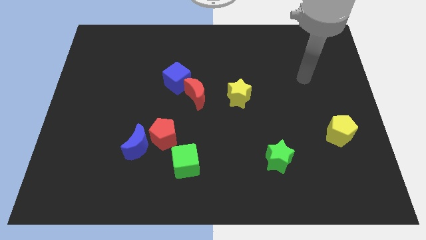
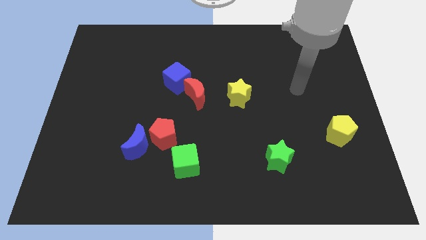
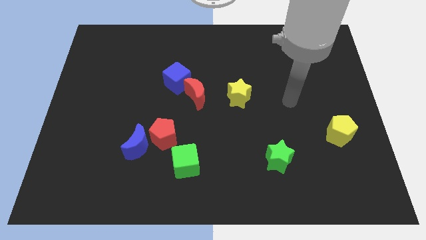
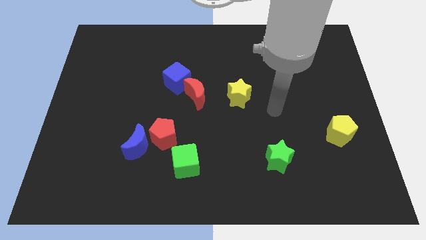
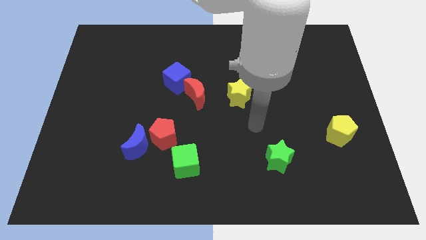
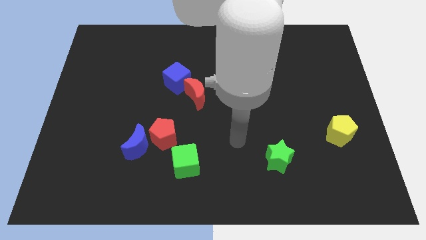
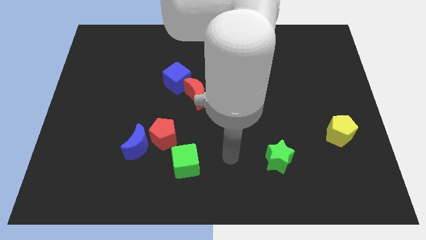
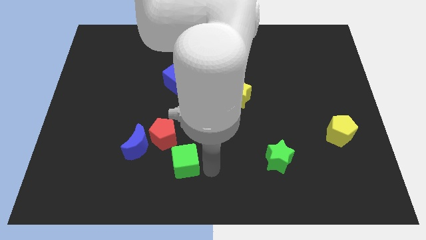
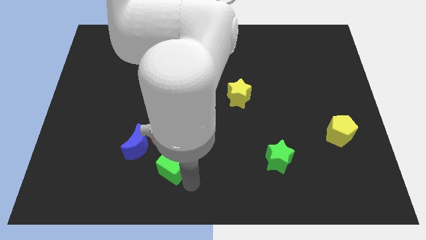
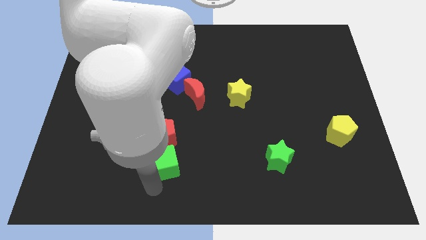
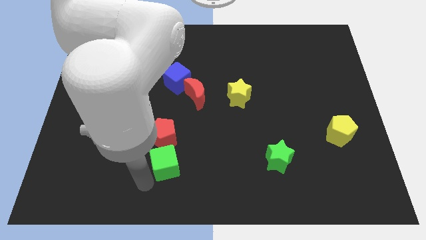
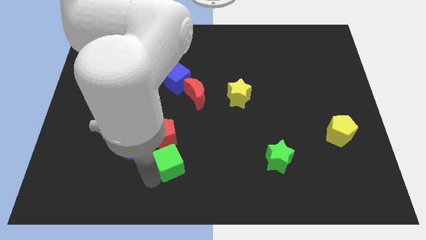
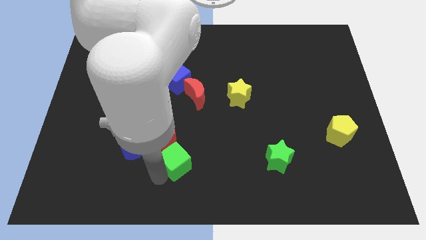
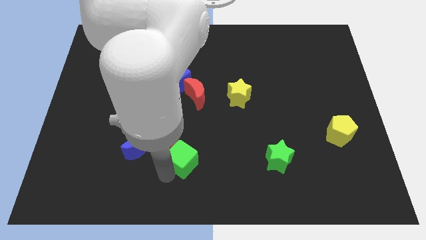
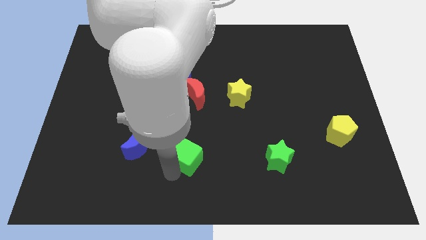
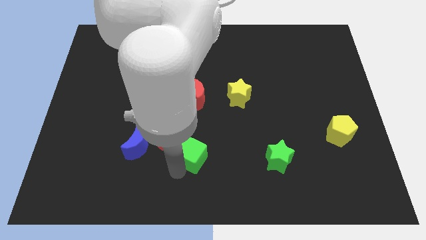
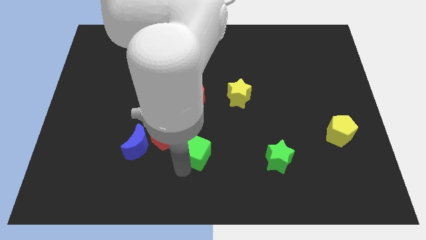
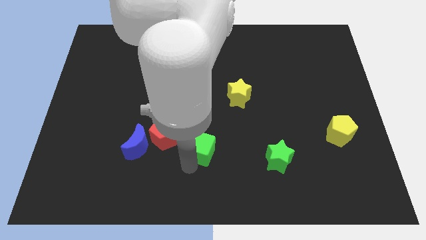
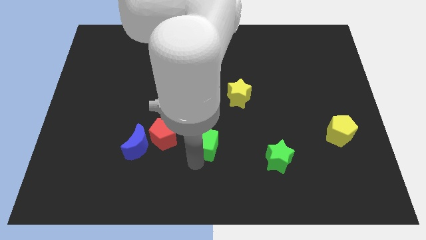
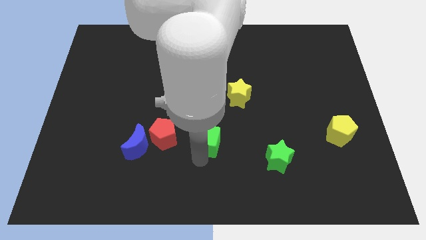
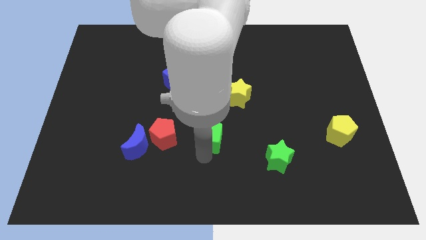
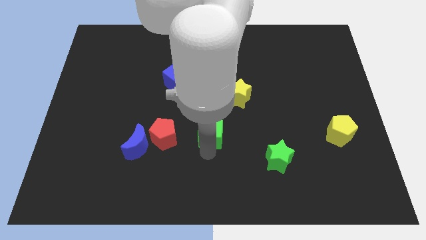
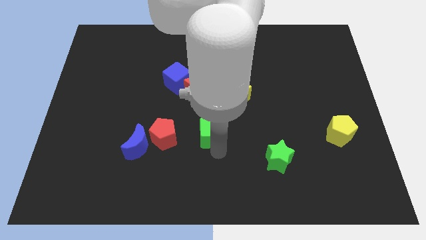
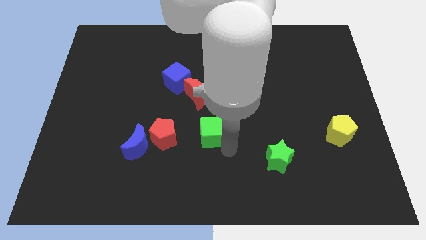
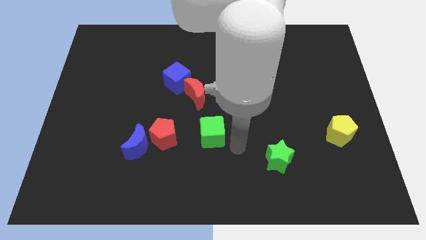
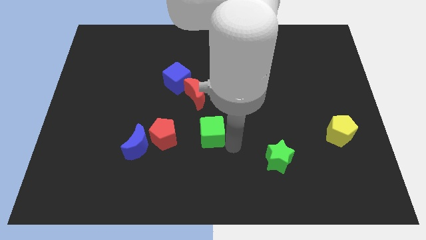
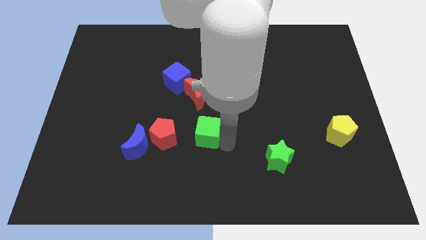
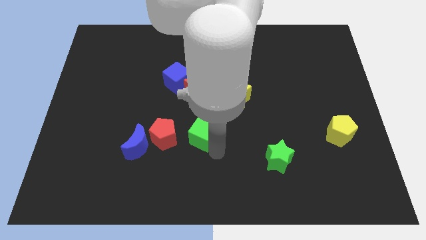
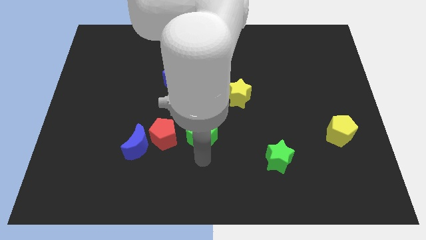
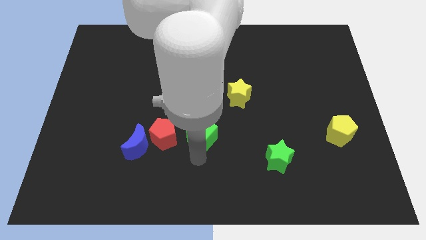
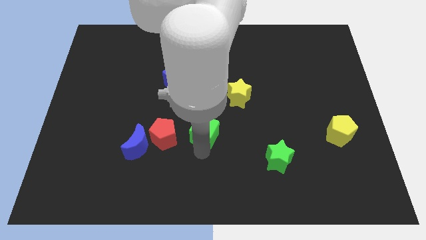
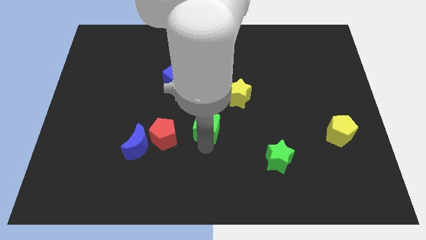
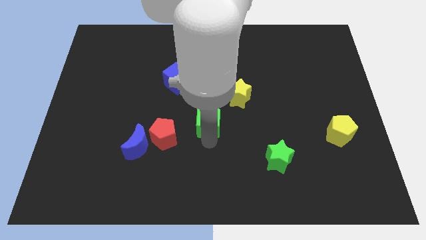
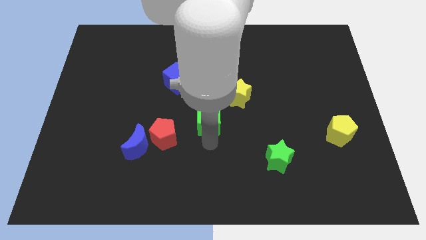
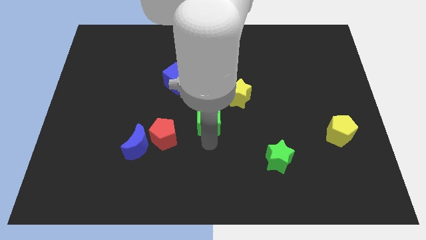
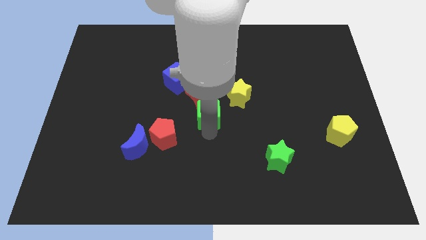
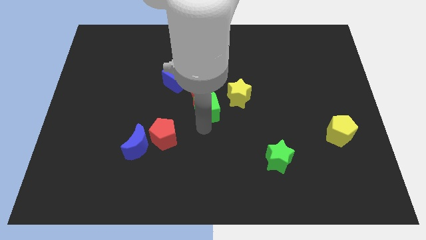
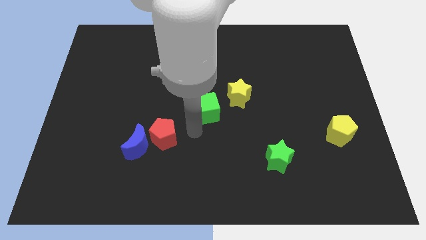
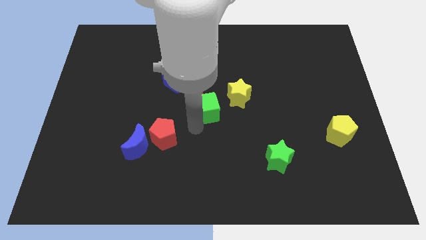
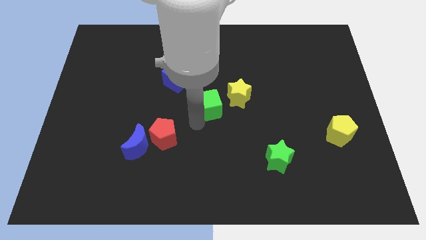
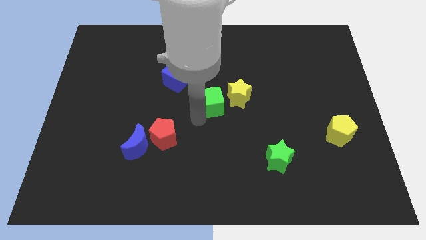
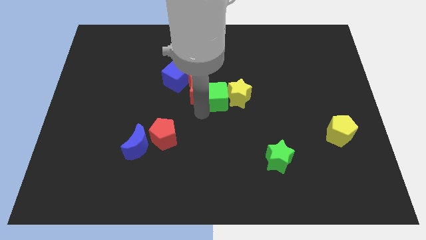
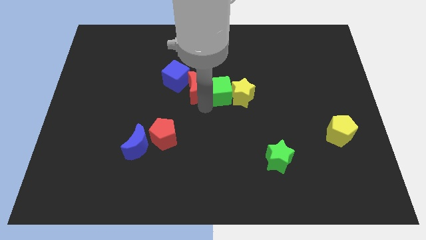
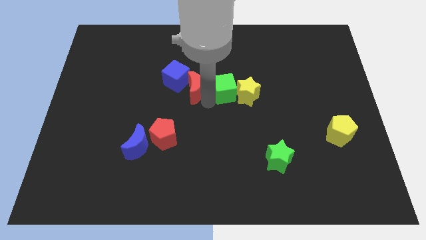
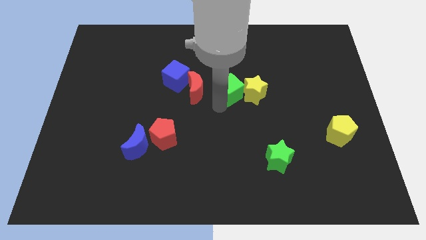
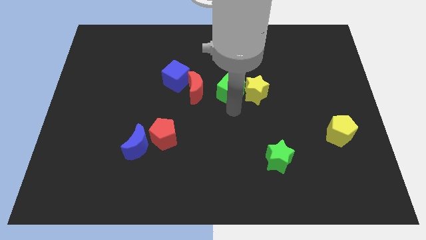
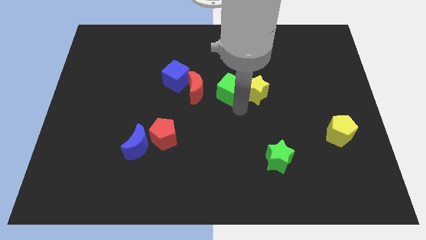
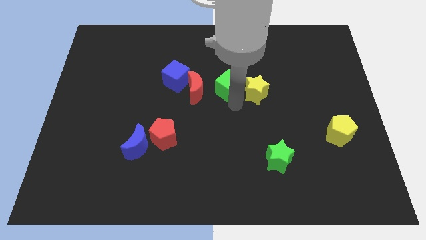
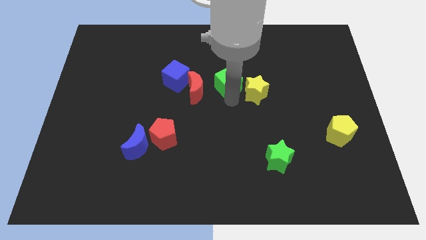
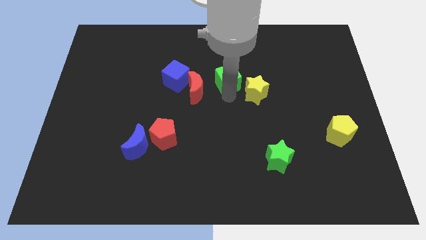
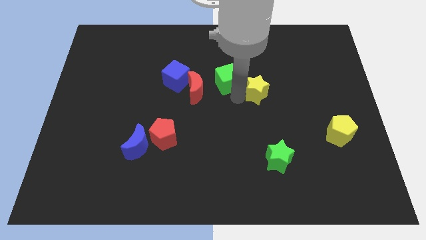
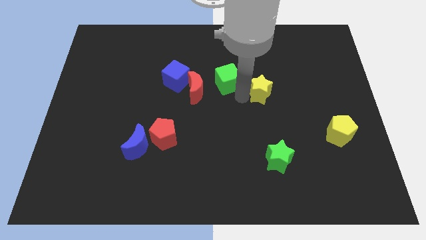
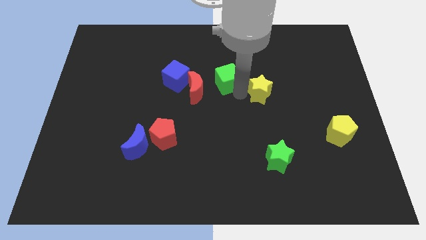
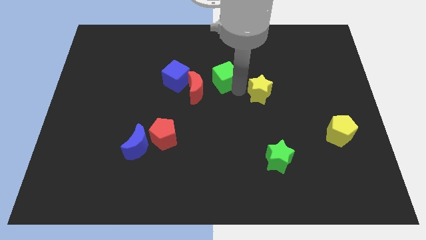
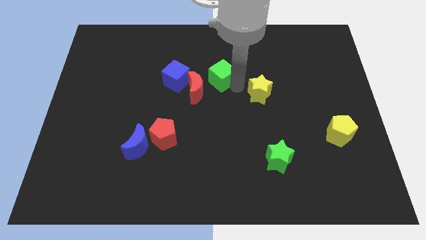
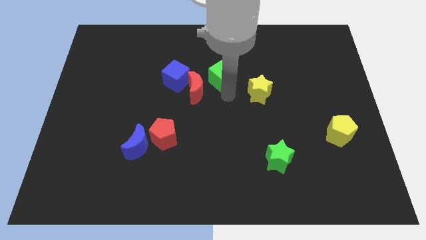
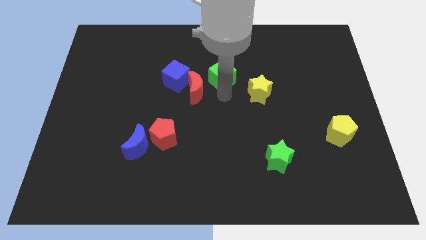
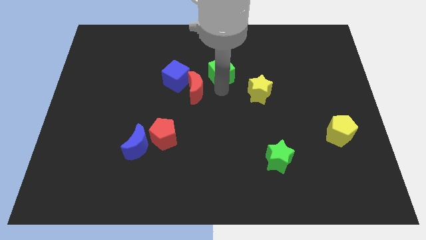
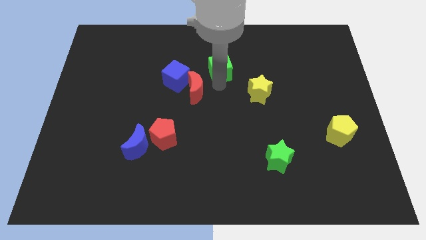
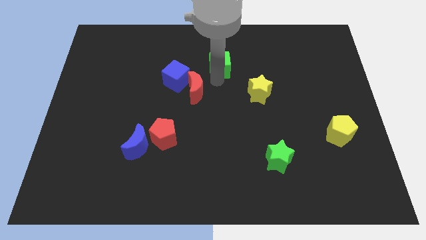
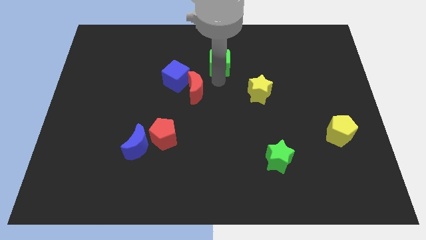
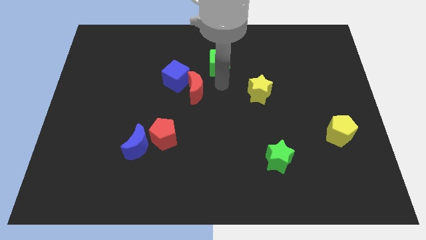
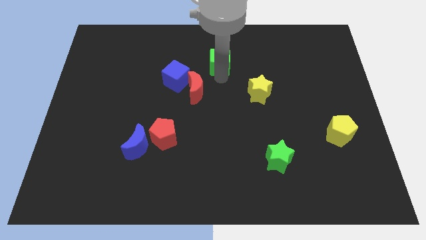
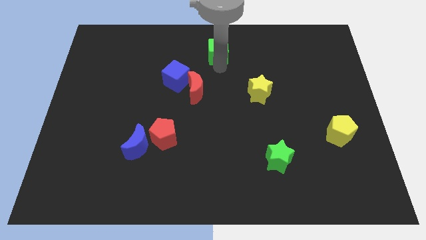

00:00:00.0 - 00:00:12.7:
slide the green cube to the top side
